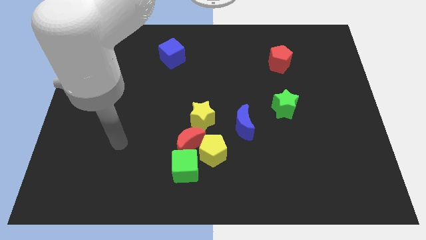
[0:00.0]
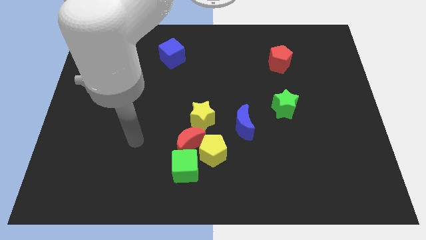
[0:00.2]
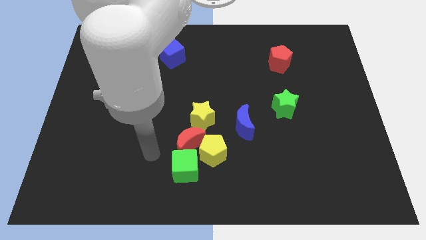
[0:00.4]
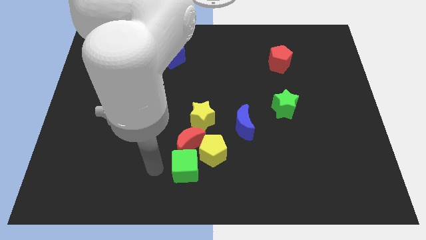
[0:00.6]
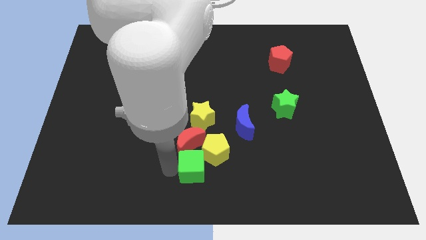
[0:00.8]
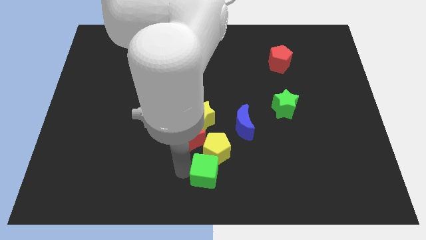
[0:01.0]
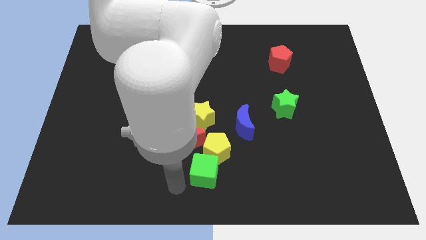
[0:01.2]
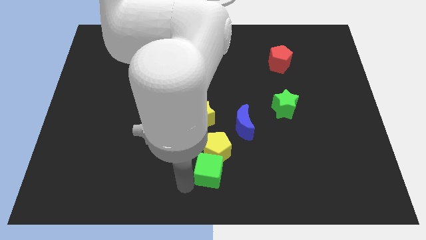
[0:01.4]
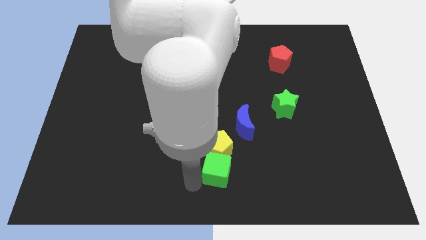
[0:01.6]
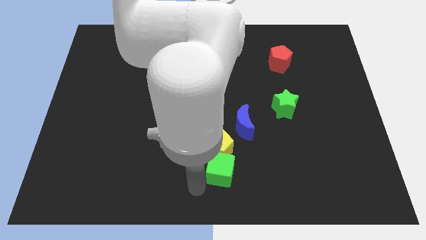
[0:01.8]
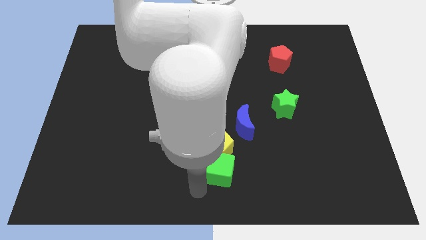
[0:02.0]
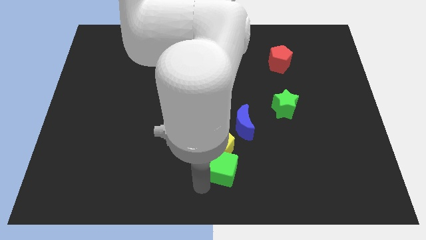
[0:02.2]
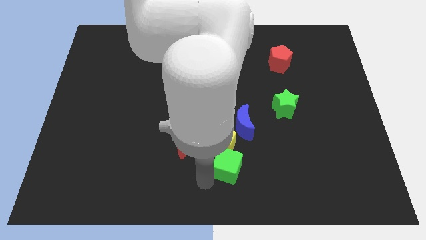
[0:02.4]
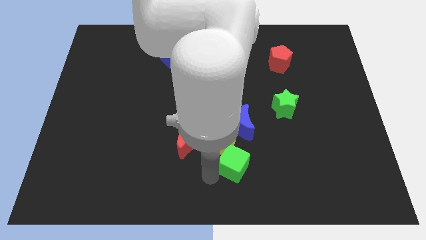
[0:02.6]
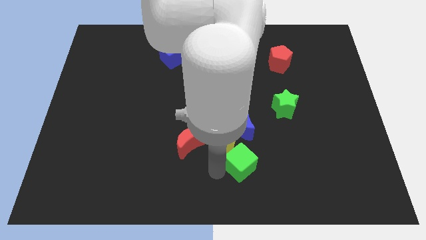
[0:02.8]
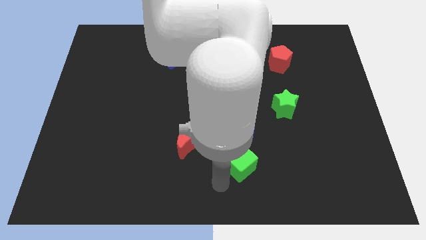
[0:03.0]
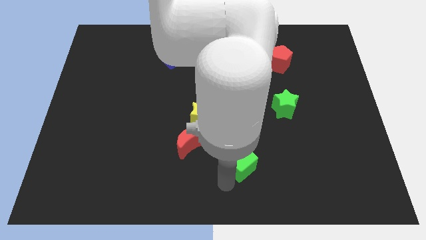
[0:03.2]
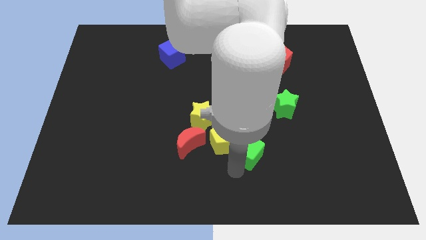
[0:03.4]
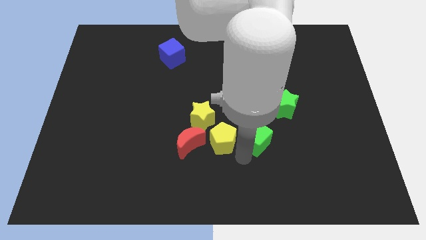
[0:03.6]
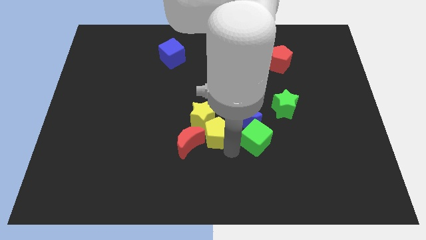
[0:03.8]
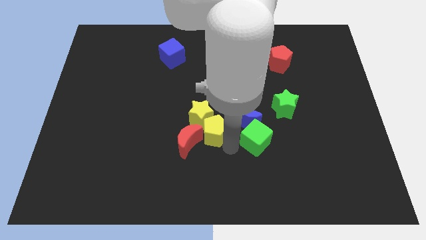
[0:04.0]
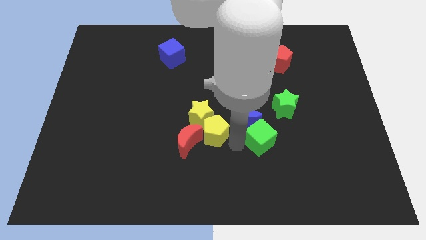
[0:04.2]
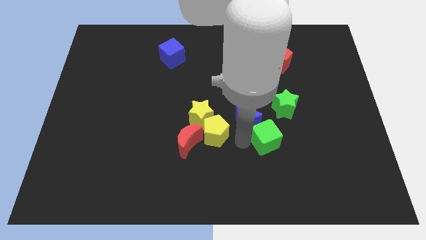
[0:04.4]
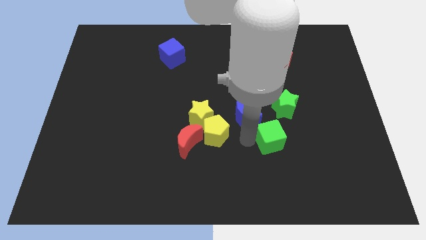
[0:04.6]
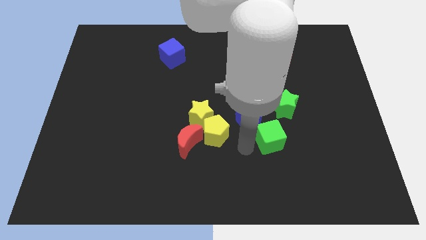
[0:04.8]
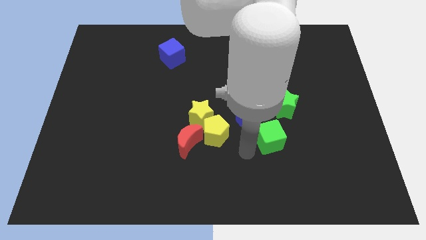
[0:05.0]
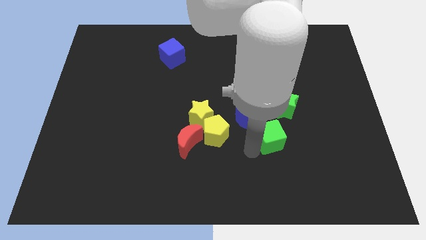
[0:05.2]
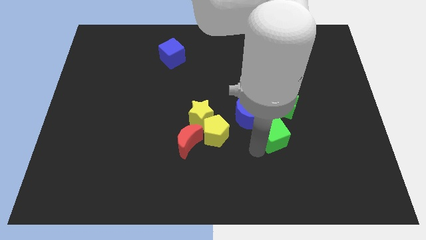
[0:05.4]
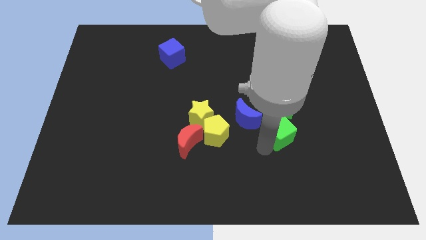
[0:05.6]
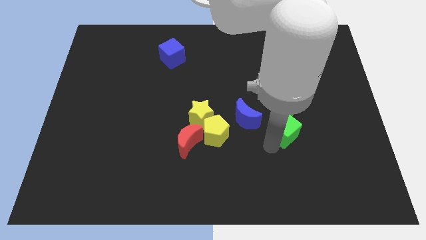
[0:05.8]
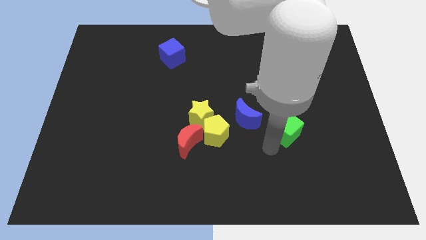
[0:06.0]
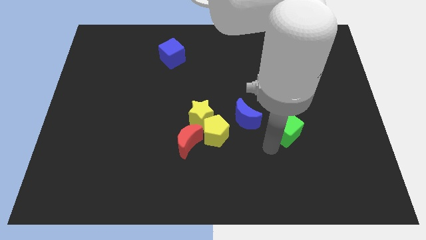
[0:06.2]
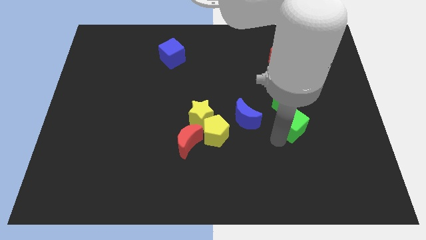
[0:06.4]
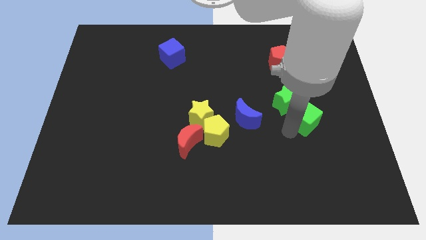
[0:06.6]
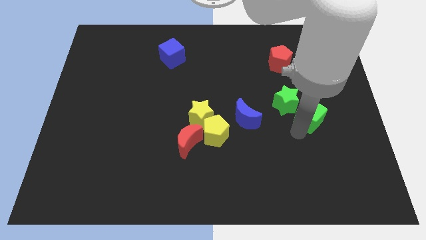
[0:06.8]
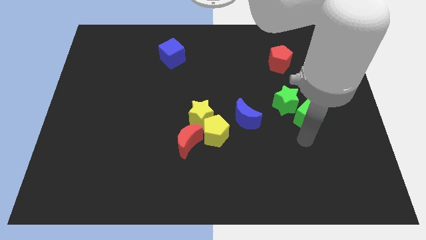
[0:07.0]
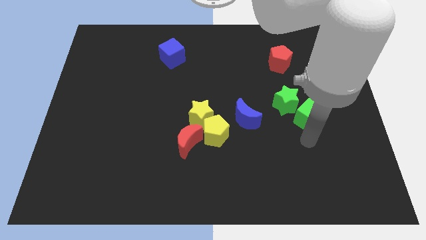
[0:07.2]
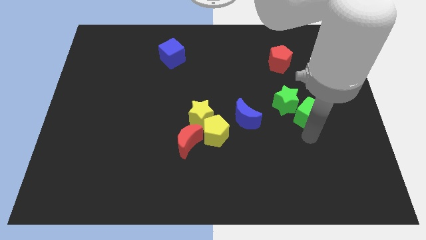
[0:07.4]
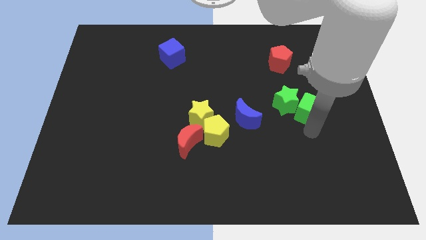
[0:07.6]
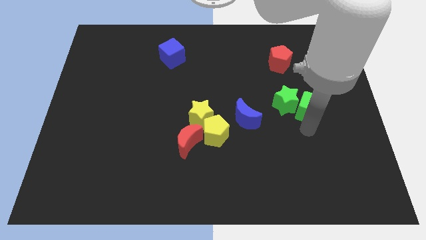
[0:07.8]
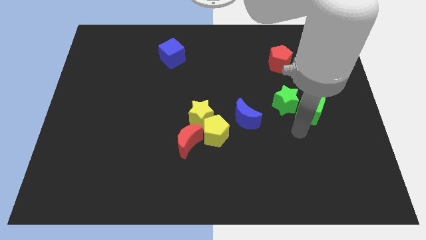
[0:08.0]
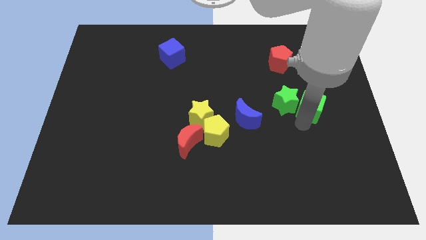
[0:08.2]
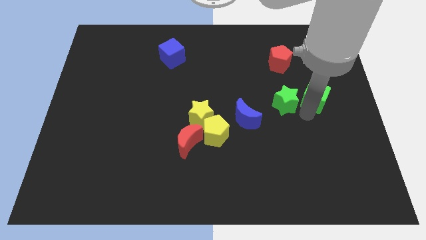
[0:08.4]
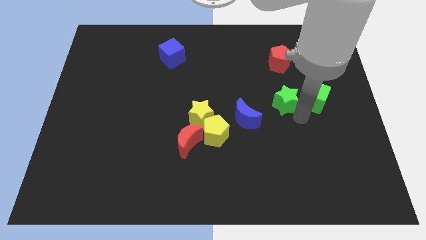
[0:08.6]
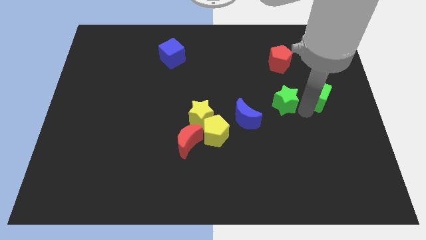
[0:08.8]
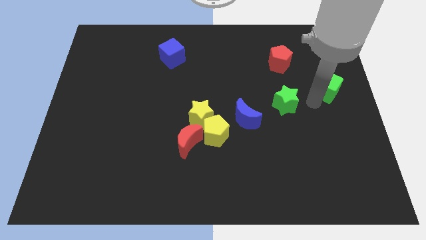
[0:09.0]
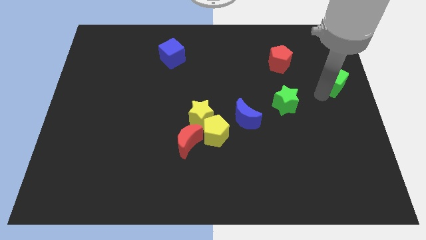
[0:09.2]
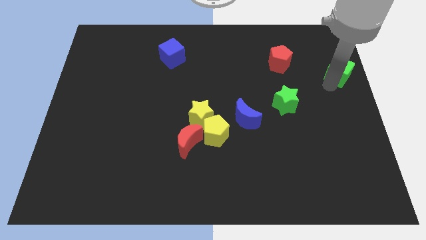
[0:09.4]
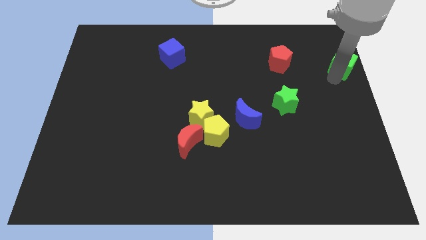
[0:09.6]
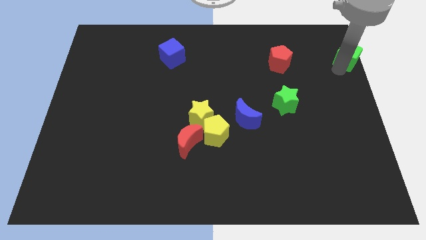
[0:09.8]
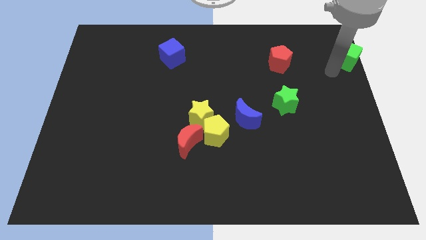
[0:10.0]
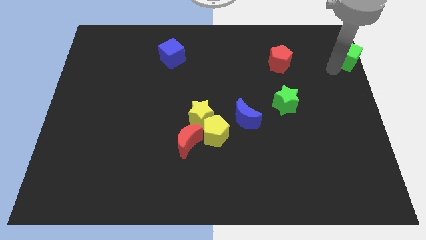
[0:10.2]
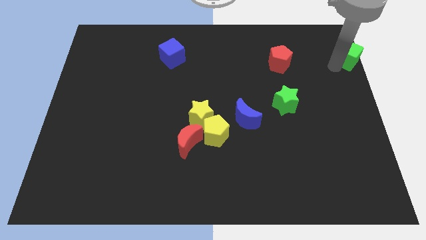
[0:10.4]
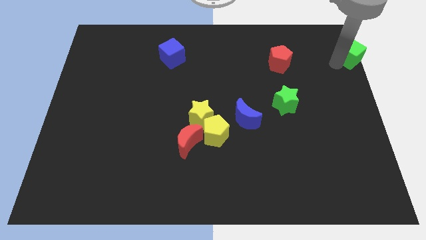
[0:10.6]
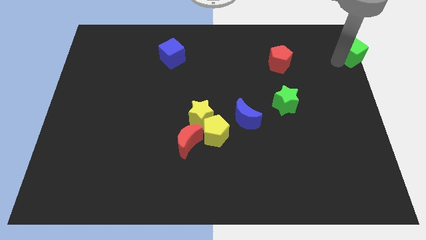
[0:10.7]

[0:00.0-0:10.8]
move the green cube to the upper right corner

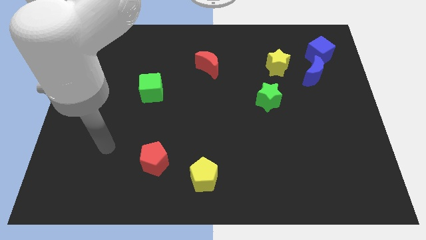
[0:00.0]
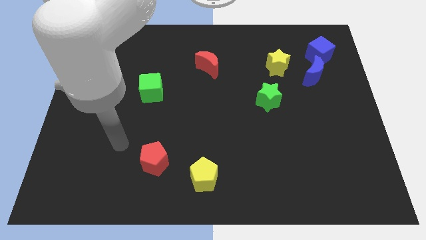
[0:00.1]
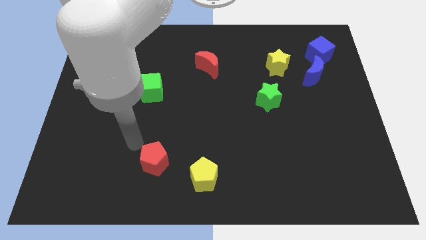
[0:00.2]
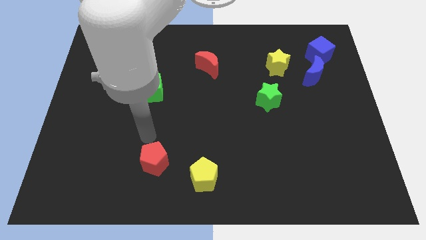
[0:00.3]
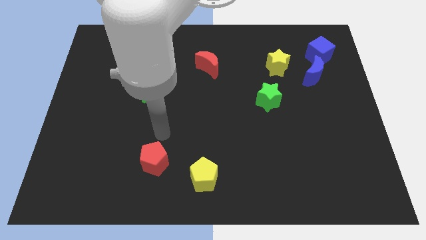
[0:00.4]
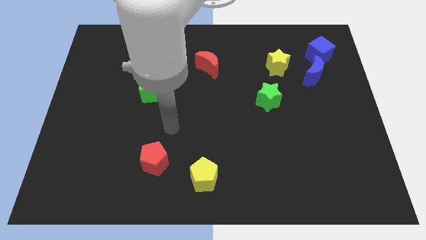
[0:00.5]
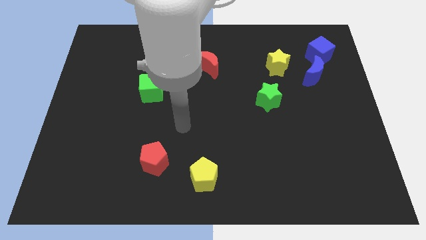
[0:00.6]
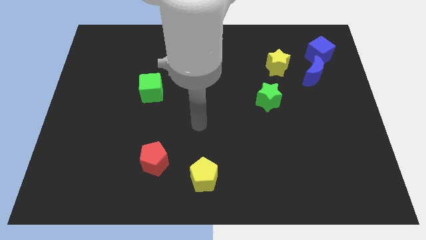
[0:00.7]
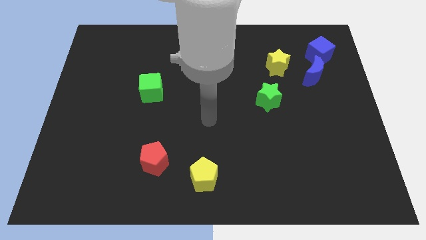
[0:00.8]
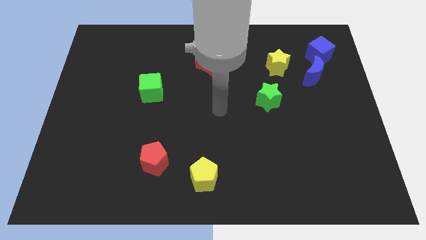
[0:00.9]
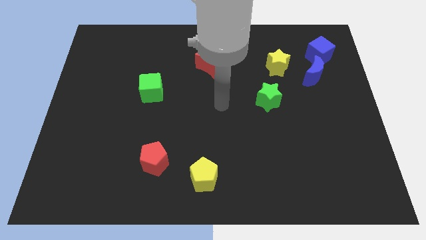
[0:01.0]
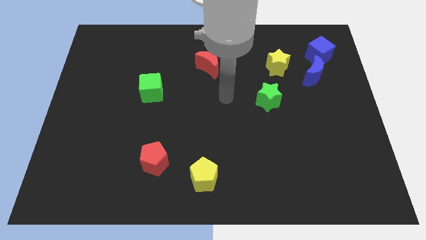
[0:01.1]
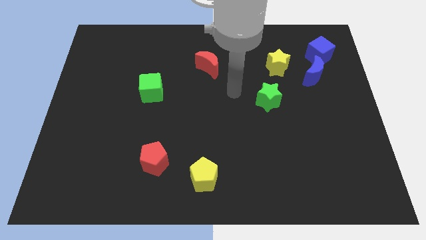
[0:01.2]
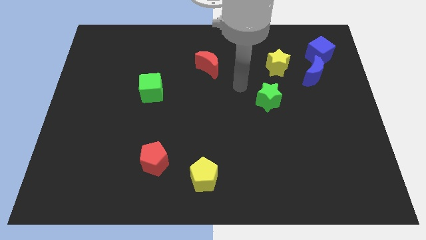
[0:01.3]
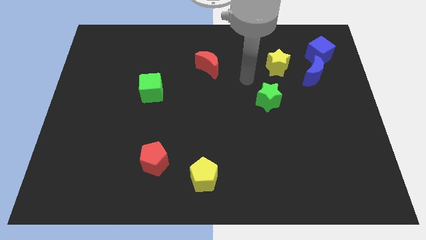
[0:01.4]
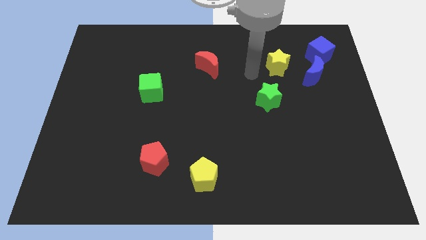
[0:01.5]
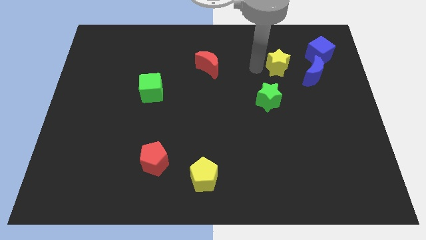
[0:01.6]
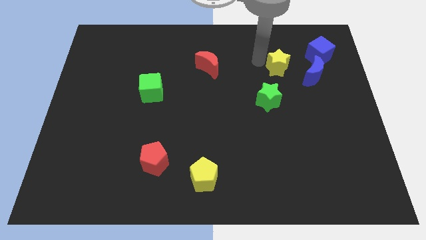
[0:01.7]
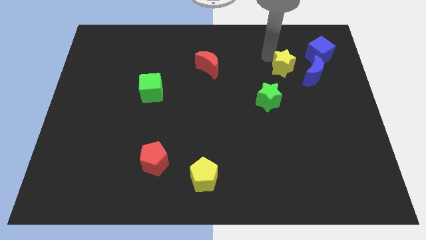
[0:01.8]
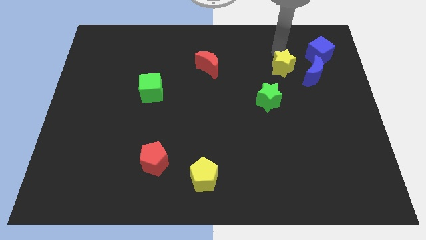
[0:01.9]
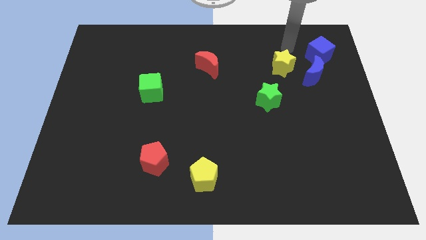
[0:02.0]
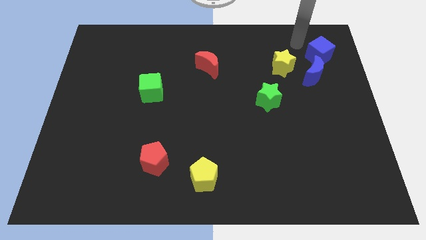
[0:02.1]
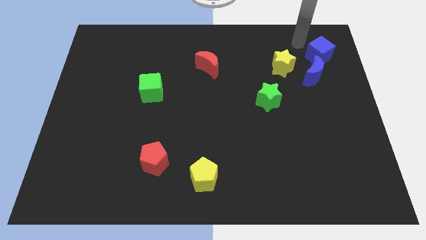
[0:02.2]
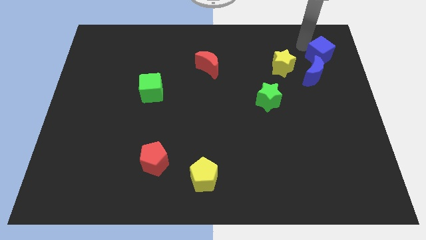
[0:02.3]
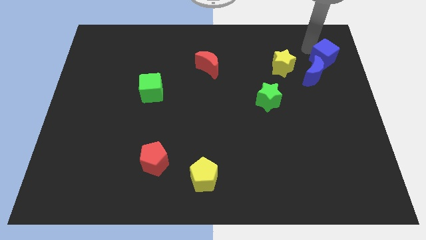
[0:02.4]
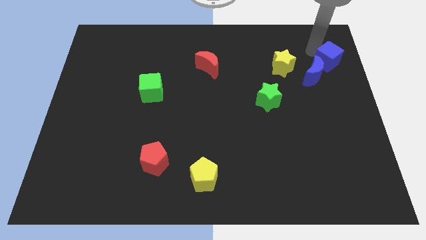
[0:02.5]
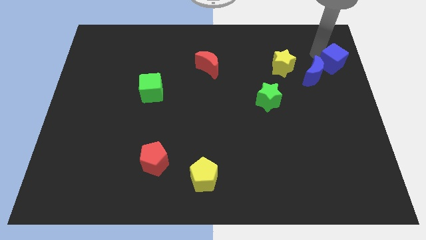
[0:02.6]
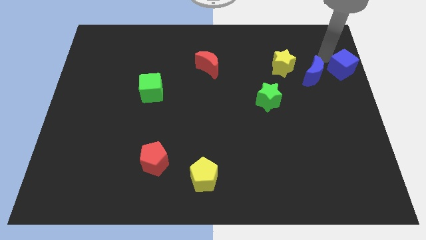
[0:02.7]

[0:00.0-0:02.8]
put the blue cube to the center right
